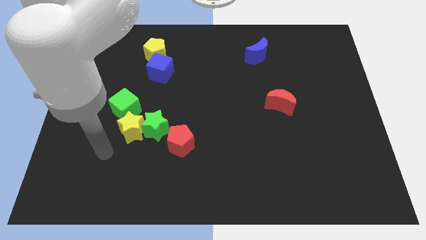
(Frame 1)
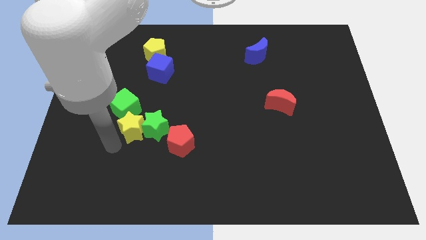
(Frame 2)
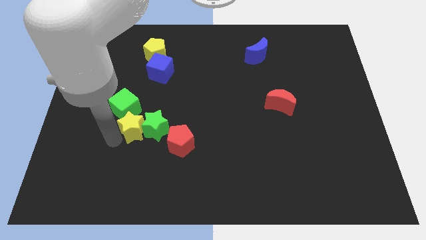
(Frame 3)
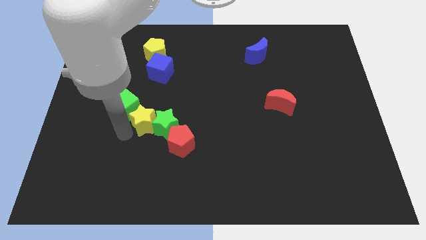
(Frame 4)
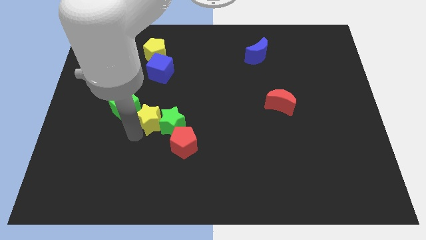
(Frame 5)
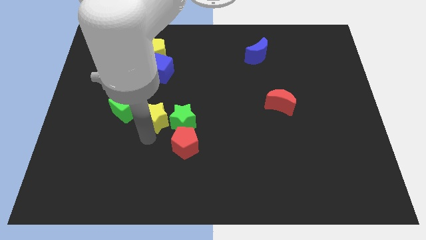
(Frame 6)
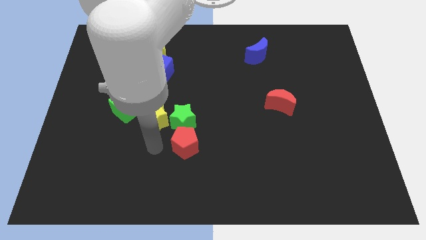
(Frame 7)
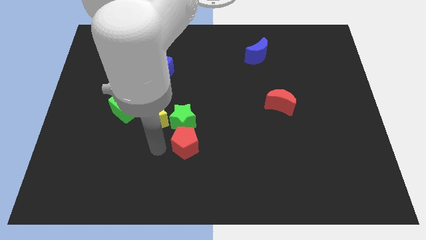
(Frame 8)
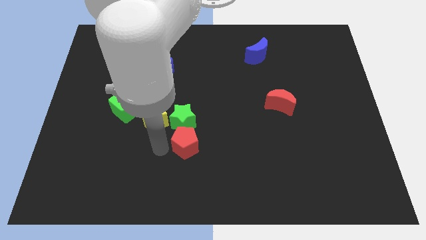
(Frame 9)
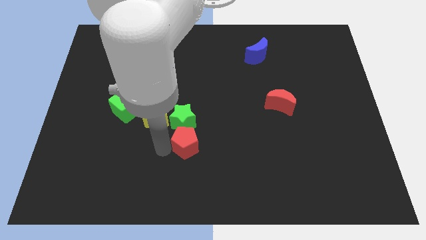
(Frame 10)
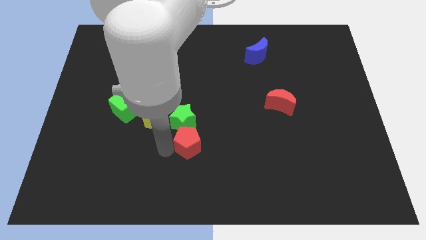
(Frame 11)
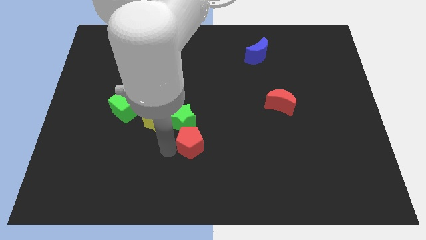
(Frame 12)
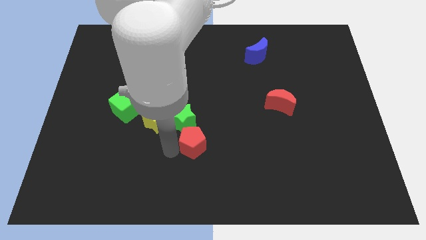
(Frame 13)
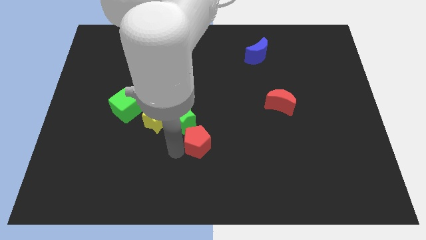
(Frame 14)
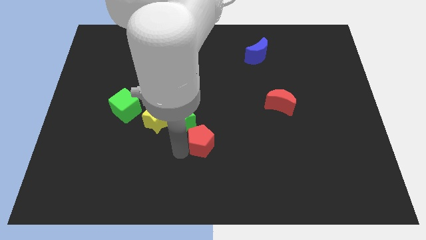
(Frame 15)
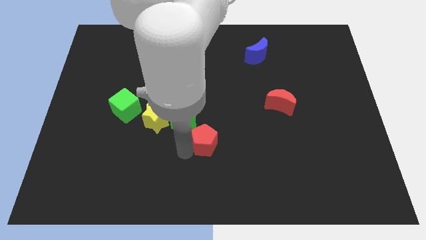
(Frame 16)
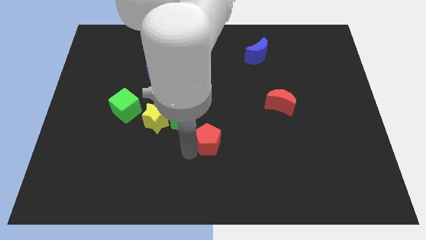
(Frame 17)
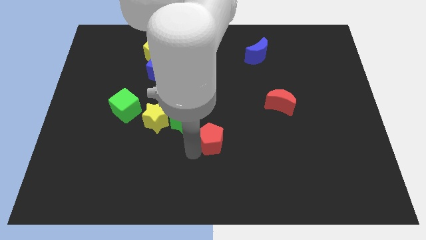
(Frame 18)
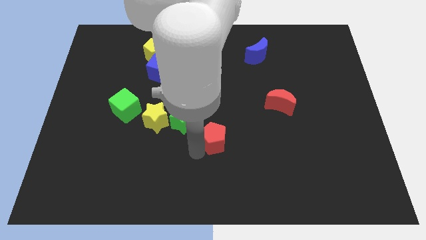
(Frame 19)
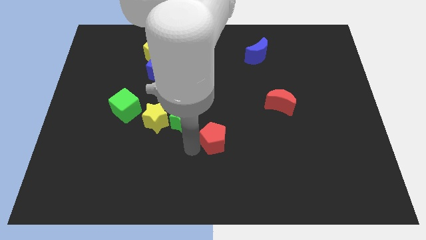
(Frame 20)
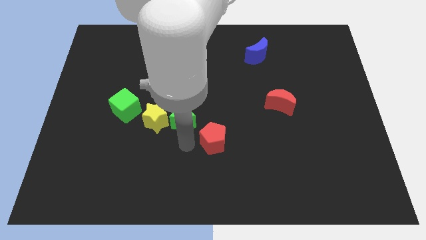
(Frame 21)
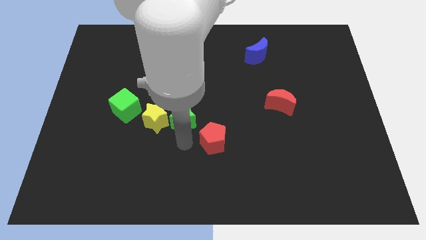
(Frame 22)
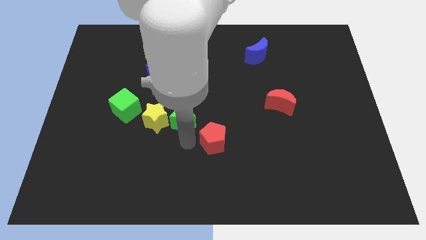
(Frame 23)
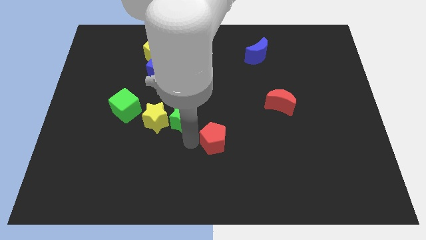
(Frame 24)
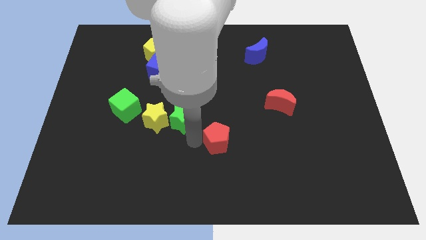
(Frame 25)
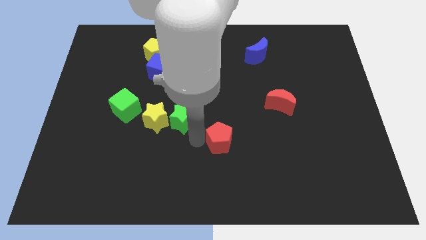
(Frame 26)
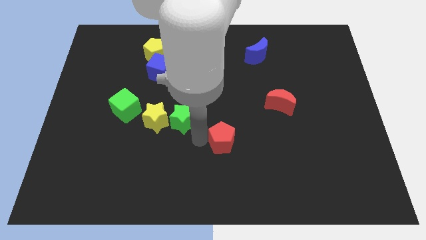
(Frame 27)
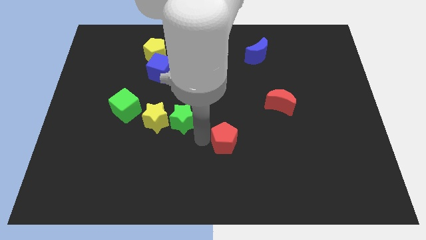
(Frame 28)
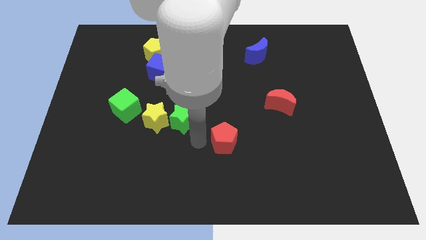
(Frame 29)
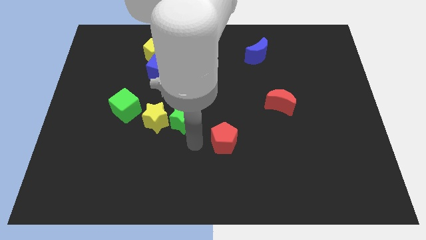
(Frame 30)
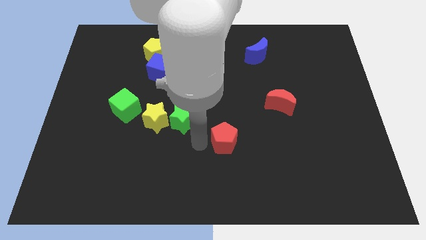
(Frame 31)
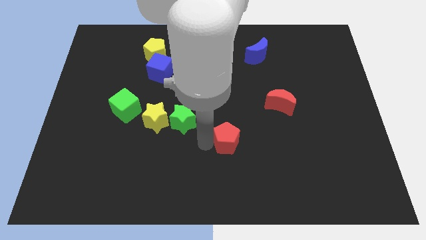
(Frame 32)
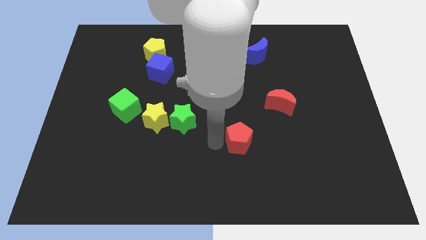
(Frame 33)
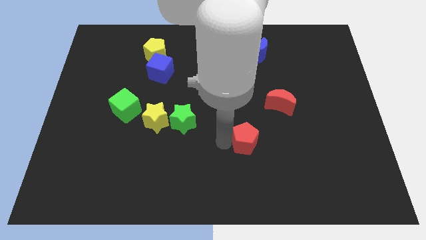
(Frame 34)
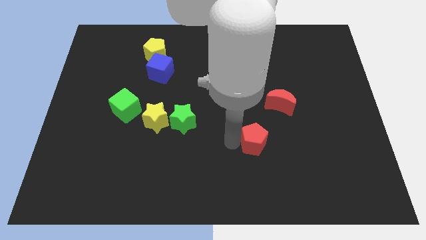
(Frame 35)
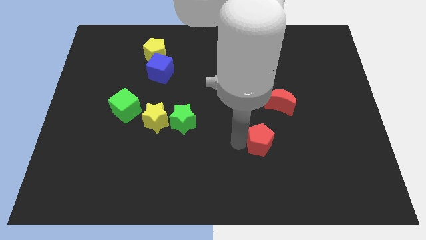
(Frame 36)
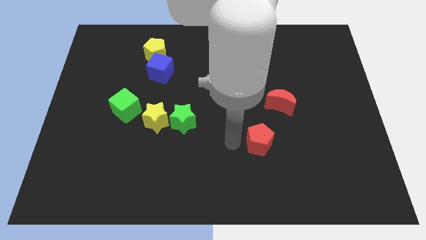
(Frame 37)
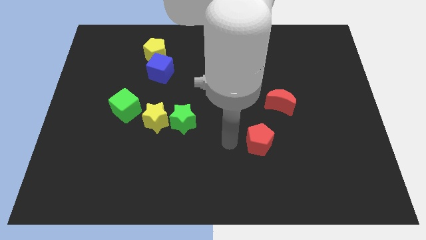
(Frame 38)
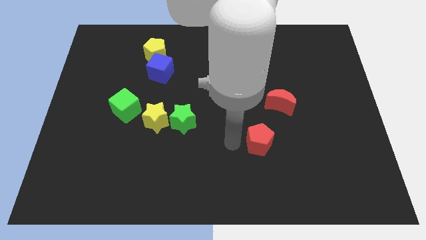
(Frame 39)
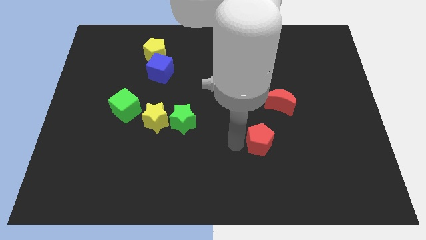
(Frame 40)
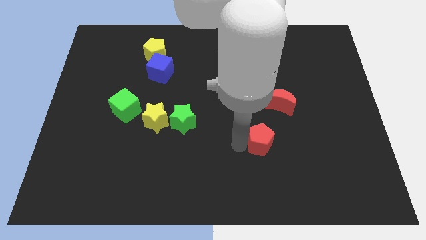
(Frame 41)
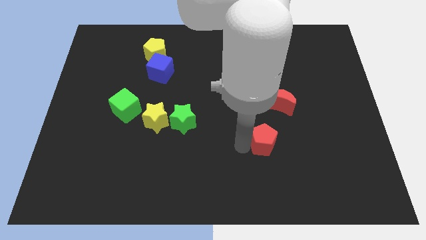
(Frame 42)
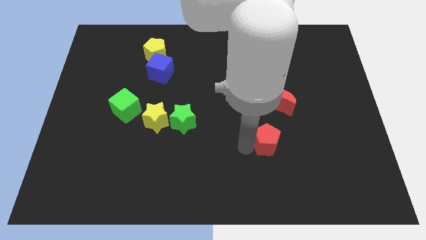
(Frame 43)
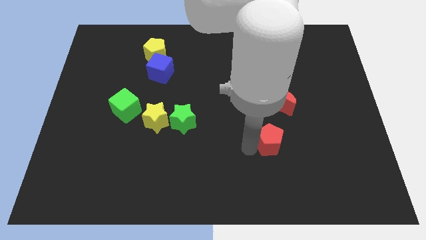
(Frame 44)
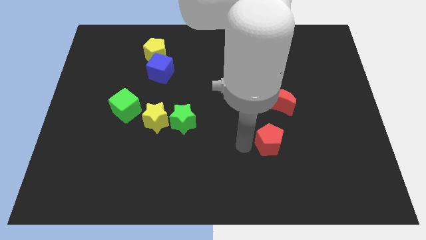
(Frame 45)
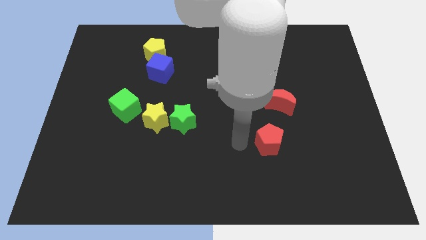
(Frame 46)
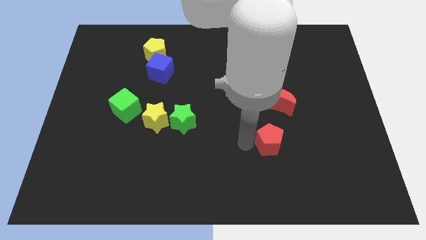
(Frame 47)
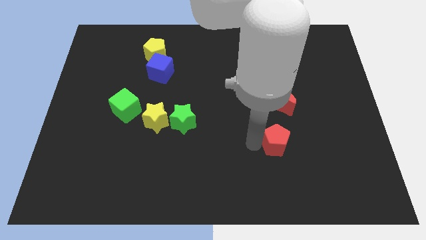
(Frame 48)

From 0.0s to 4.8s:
move the red pentagon right

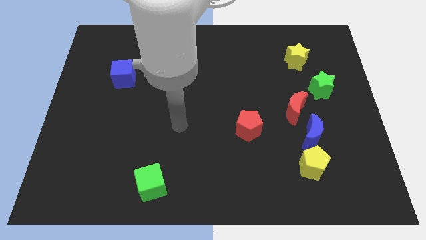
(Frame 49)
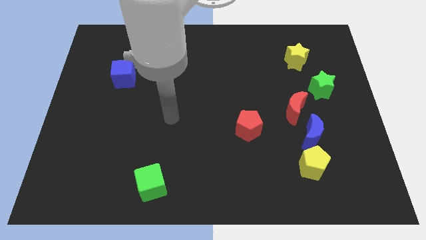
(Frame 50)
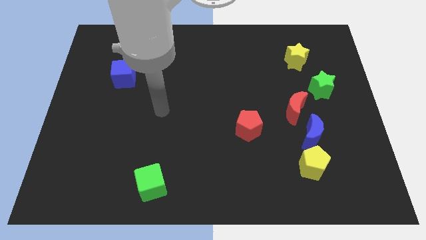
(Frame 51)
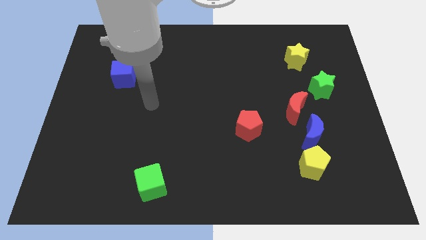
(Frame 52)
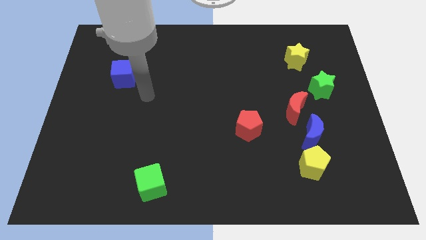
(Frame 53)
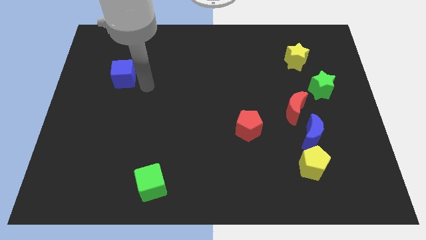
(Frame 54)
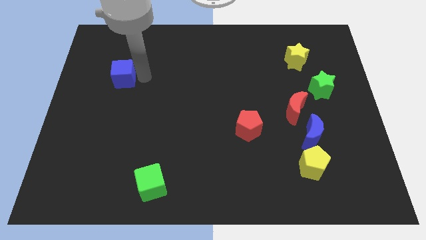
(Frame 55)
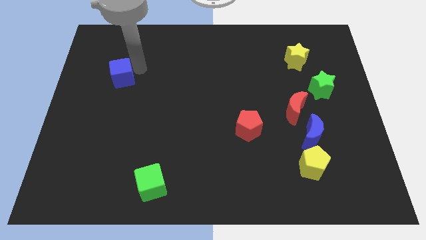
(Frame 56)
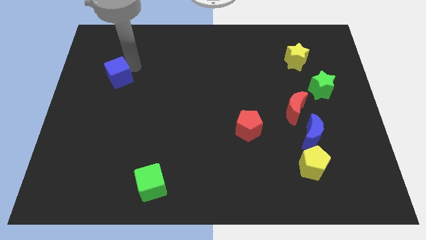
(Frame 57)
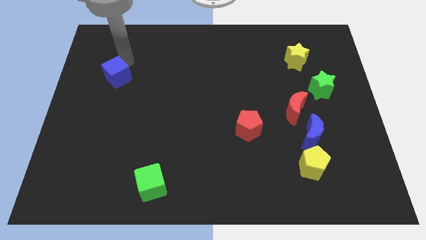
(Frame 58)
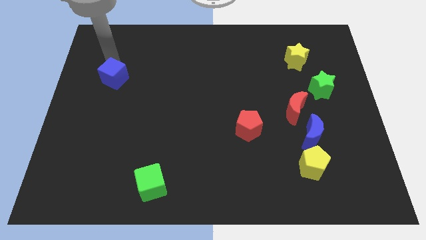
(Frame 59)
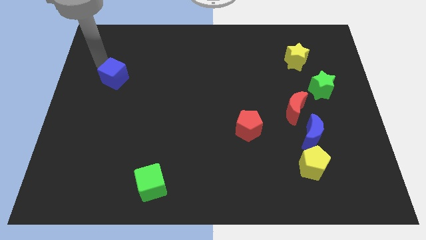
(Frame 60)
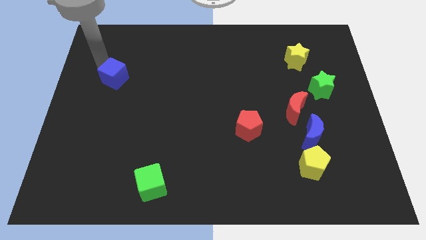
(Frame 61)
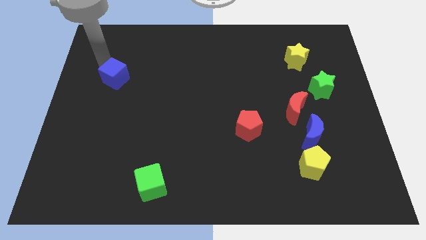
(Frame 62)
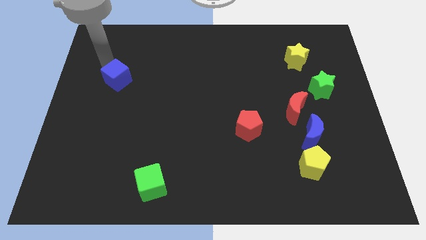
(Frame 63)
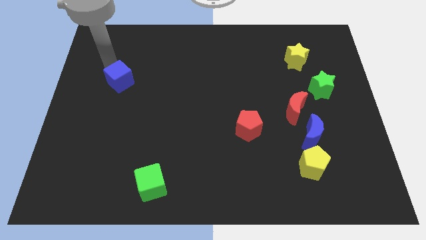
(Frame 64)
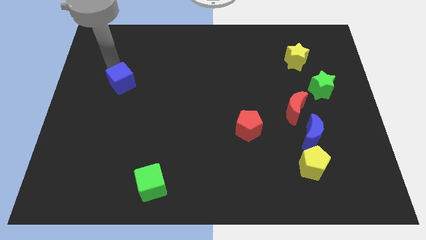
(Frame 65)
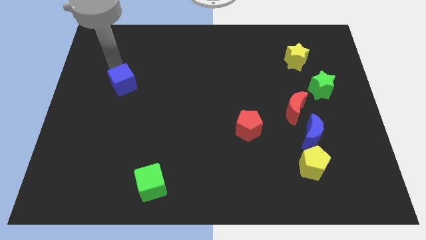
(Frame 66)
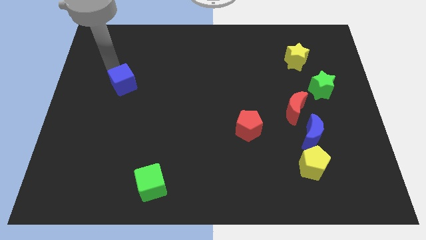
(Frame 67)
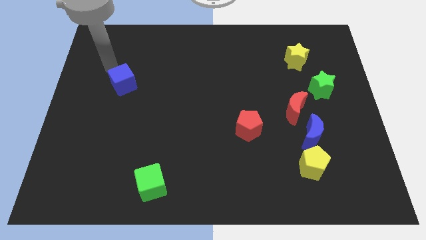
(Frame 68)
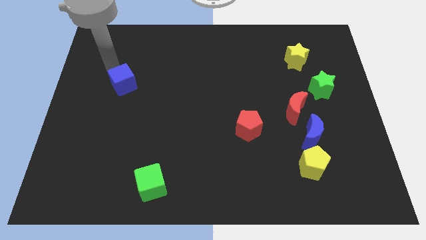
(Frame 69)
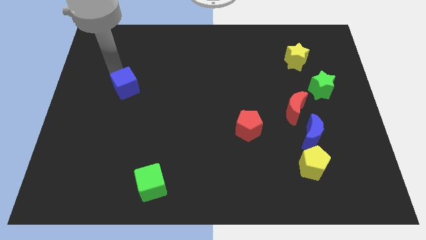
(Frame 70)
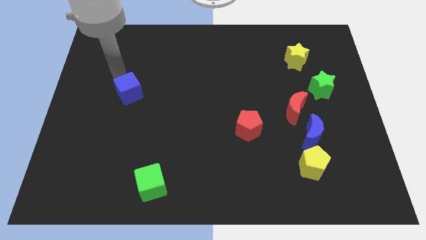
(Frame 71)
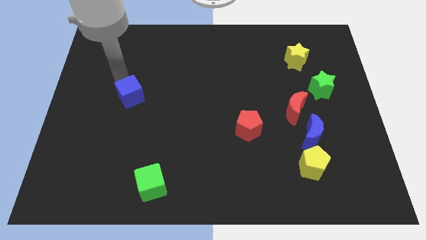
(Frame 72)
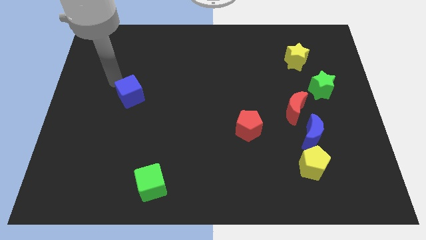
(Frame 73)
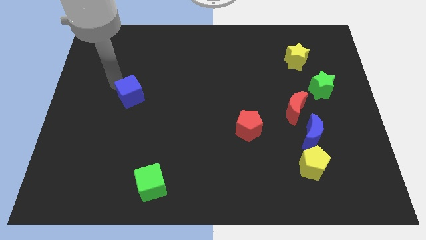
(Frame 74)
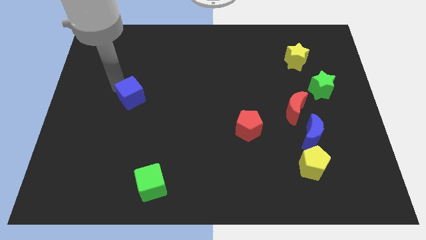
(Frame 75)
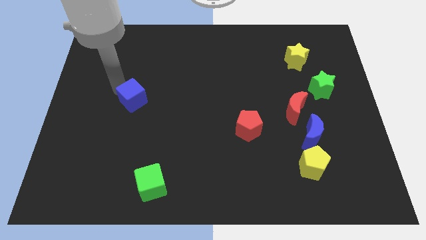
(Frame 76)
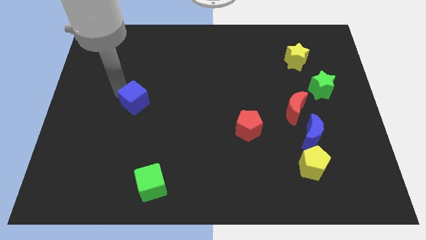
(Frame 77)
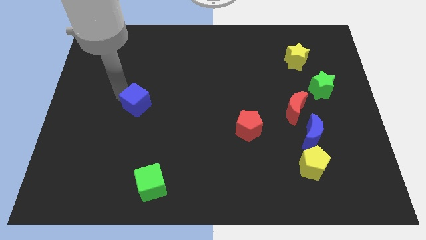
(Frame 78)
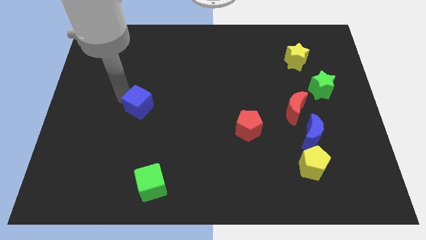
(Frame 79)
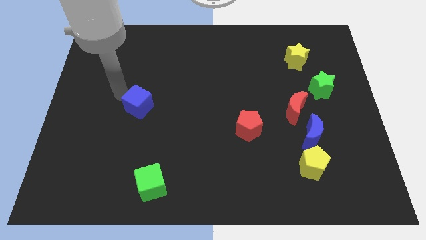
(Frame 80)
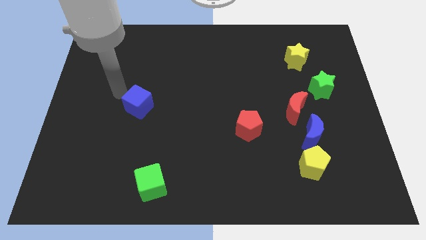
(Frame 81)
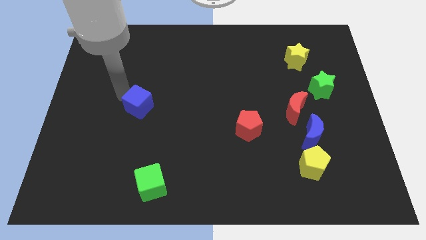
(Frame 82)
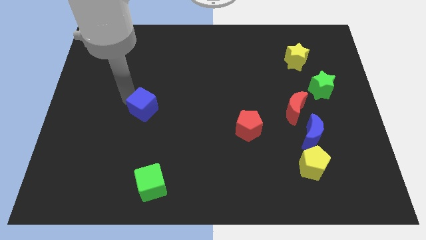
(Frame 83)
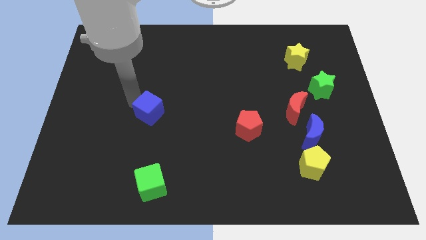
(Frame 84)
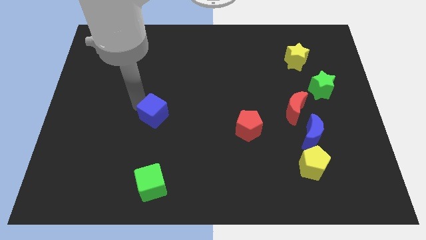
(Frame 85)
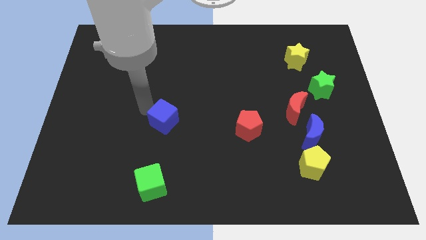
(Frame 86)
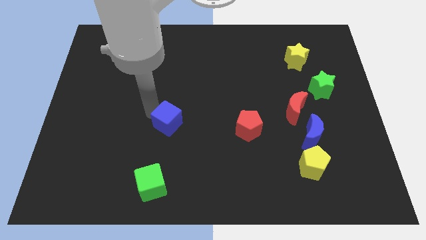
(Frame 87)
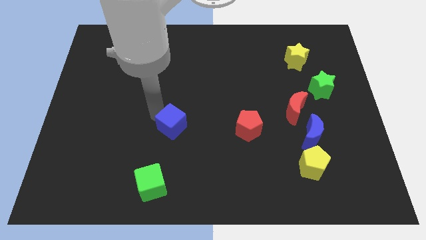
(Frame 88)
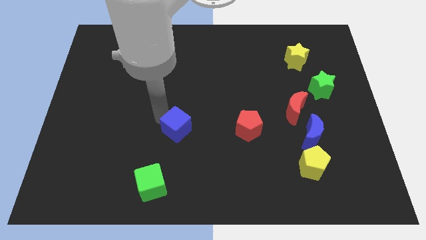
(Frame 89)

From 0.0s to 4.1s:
move the blue cube downwards and to the right
